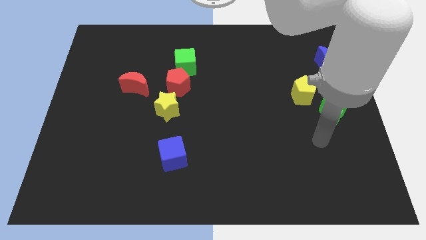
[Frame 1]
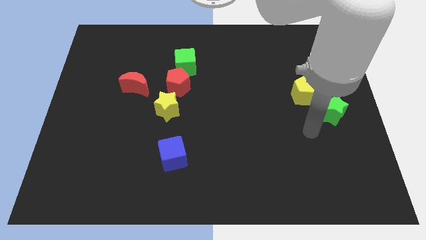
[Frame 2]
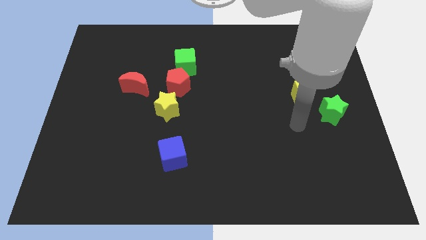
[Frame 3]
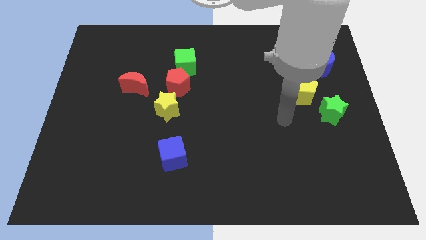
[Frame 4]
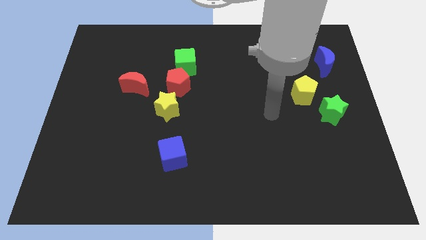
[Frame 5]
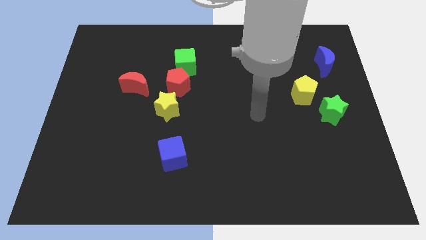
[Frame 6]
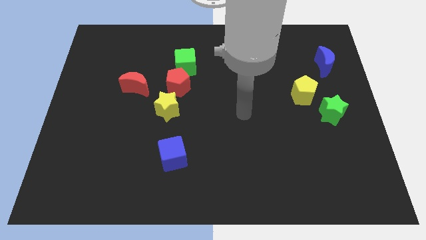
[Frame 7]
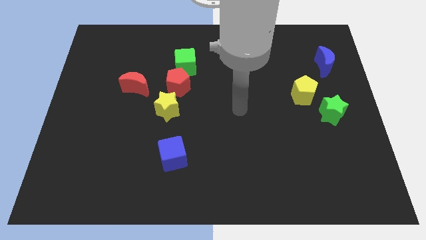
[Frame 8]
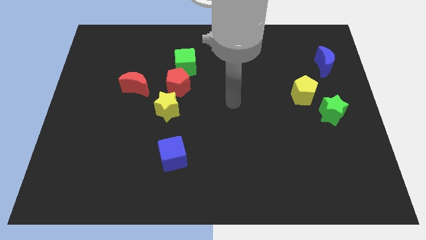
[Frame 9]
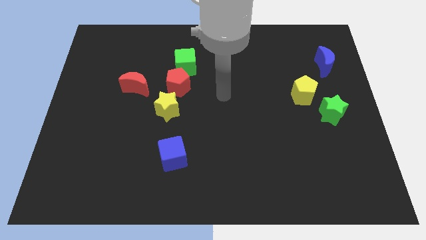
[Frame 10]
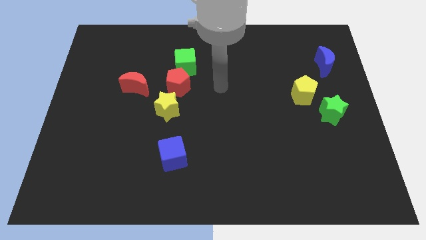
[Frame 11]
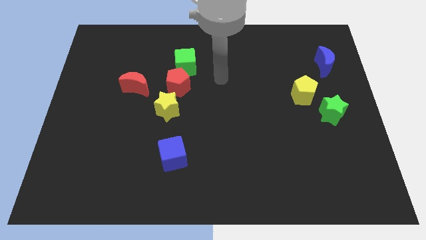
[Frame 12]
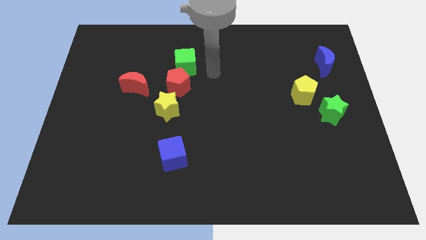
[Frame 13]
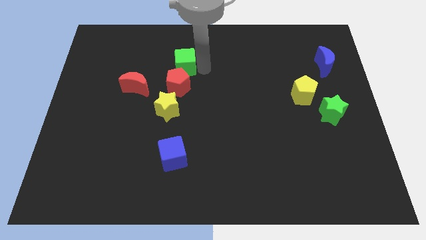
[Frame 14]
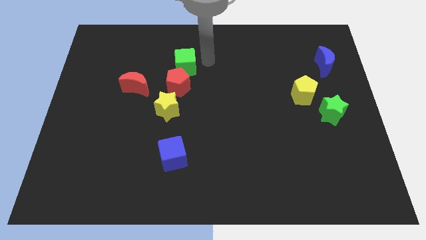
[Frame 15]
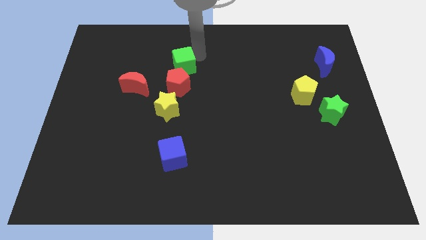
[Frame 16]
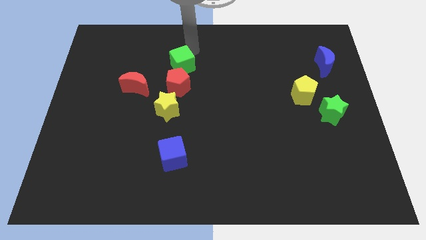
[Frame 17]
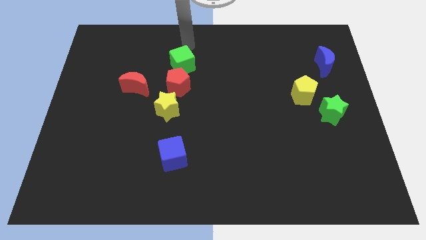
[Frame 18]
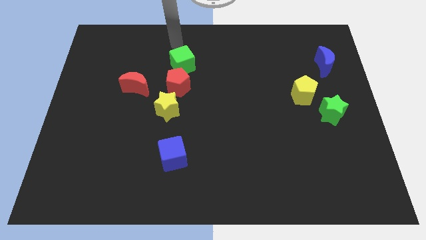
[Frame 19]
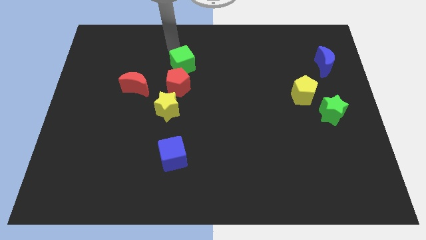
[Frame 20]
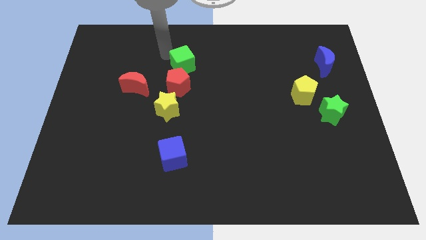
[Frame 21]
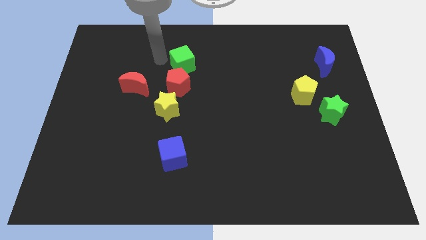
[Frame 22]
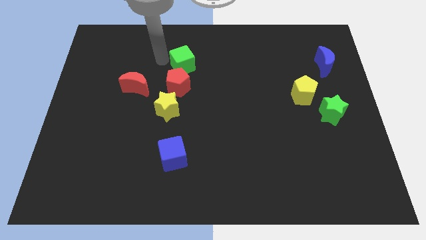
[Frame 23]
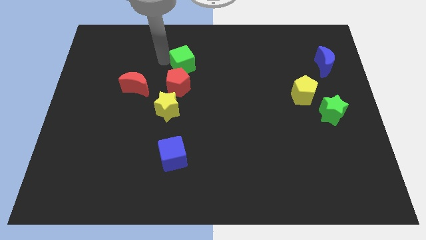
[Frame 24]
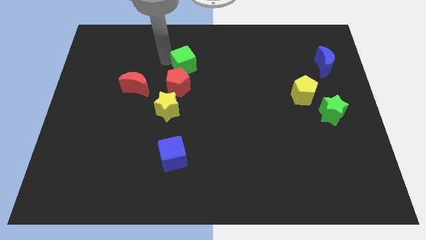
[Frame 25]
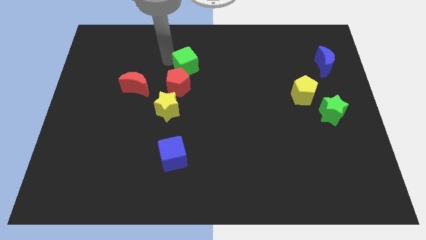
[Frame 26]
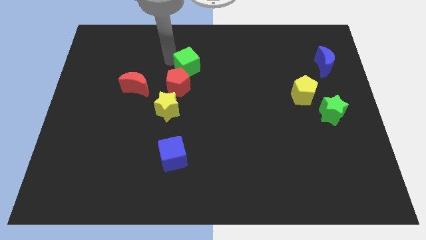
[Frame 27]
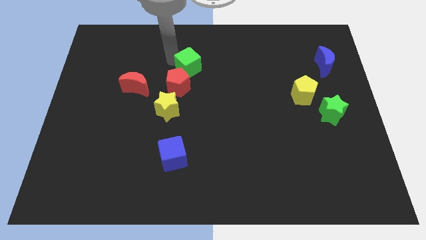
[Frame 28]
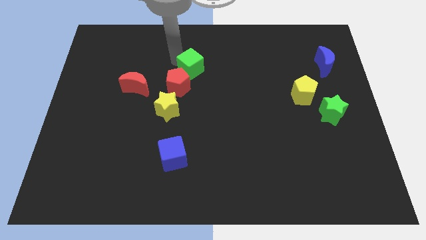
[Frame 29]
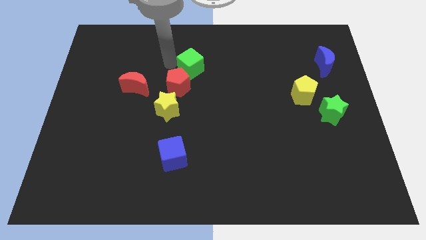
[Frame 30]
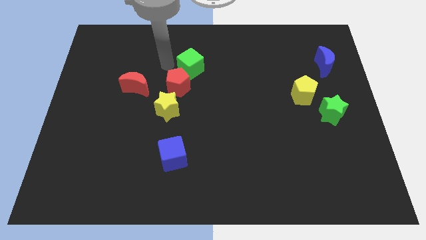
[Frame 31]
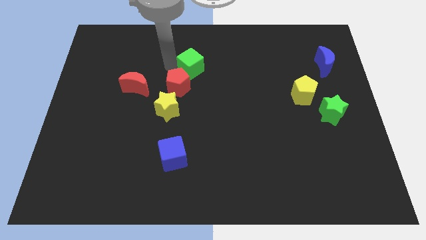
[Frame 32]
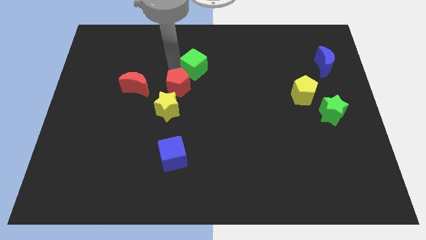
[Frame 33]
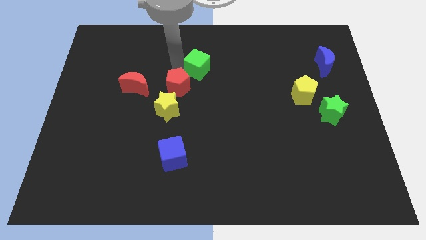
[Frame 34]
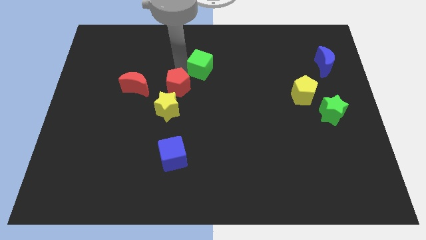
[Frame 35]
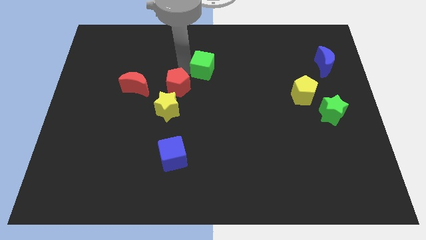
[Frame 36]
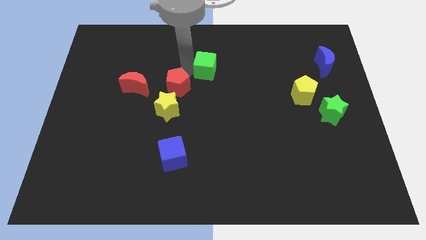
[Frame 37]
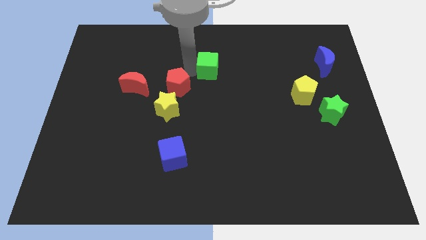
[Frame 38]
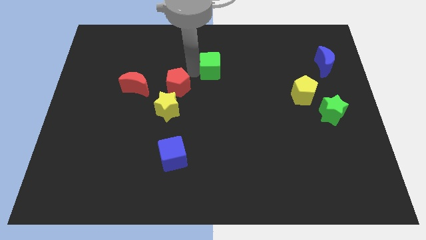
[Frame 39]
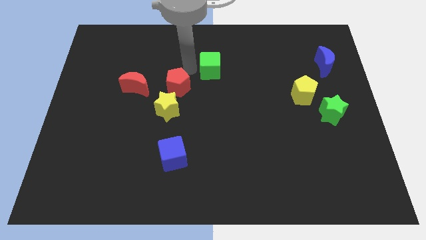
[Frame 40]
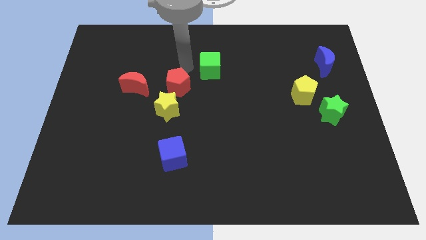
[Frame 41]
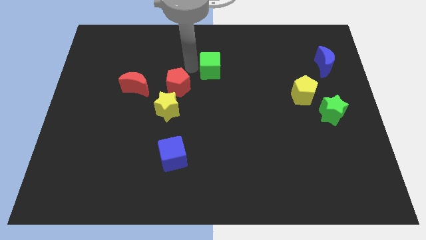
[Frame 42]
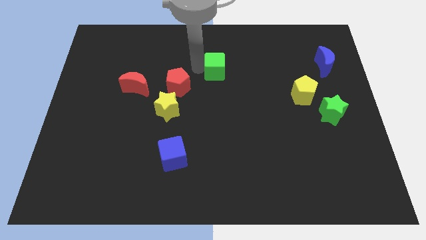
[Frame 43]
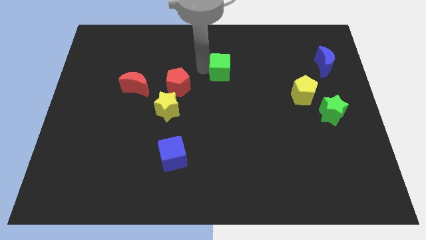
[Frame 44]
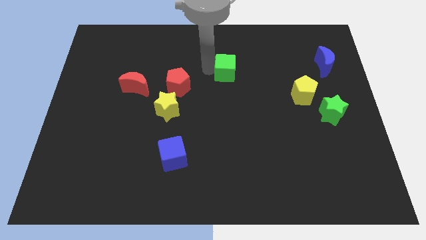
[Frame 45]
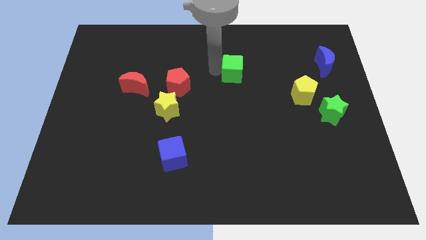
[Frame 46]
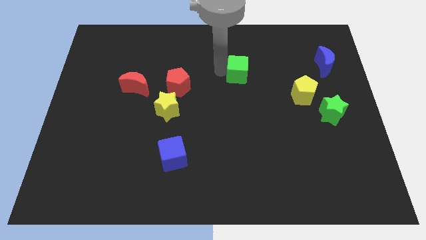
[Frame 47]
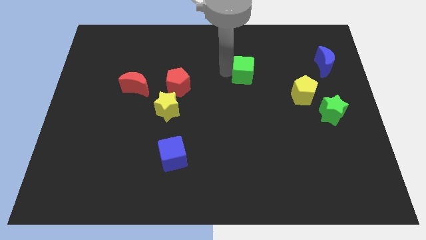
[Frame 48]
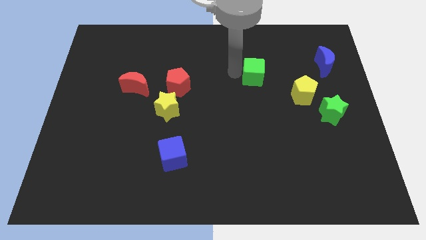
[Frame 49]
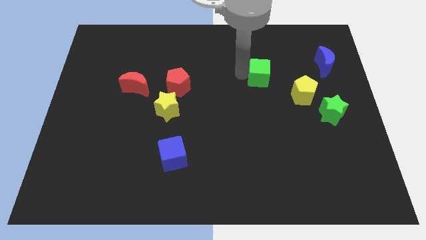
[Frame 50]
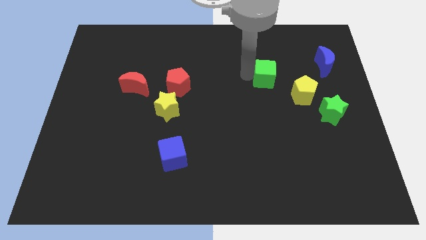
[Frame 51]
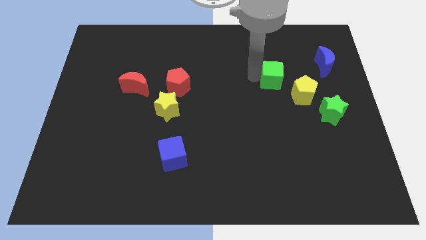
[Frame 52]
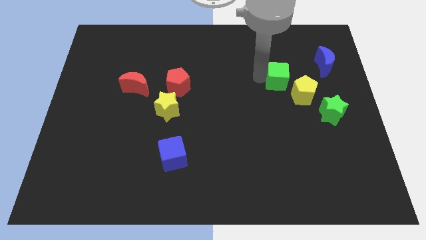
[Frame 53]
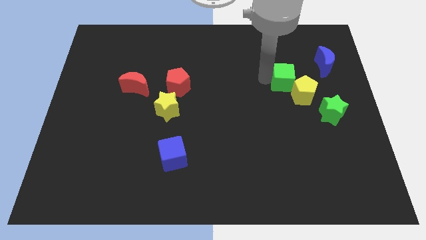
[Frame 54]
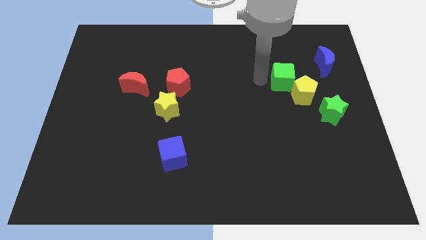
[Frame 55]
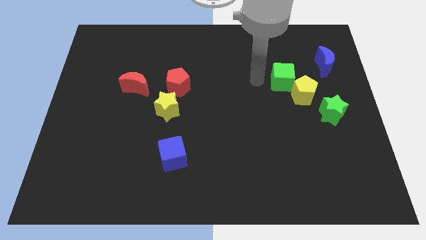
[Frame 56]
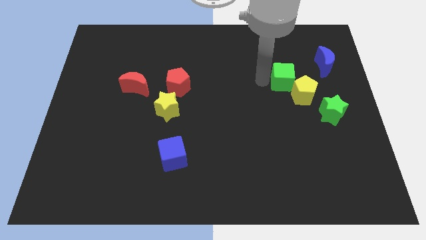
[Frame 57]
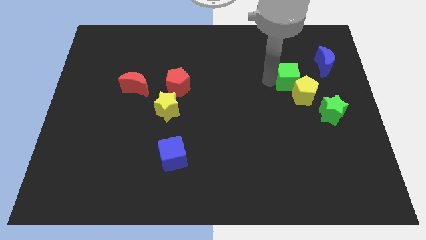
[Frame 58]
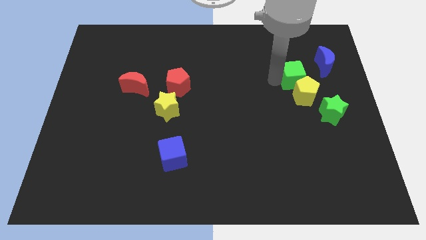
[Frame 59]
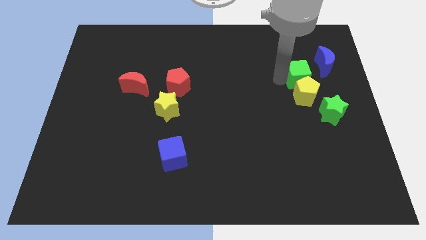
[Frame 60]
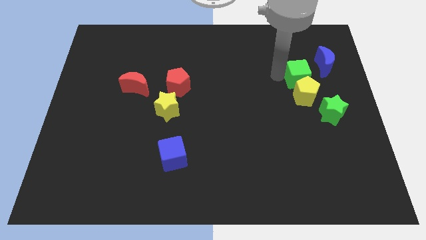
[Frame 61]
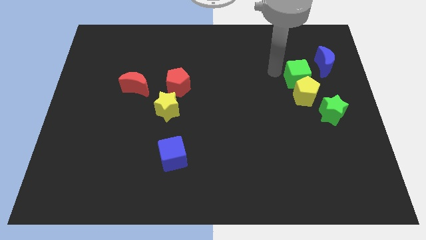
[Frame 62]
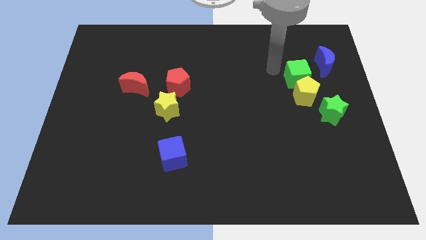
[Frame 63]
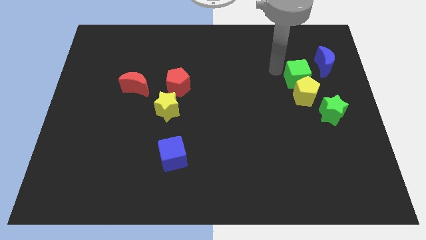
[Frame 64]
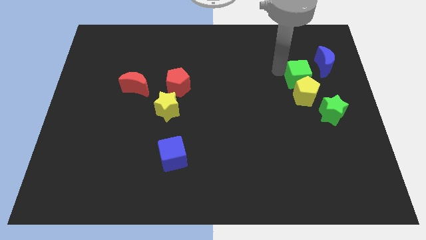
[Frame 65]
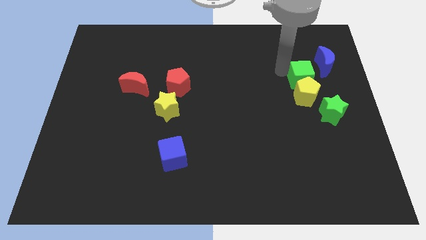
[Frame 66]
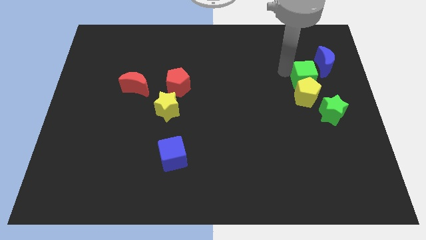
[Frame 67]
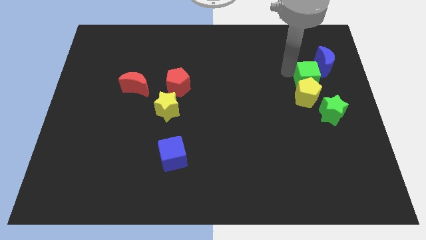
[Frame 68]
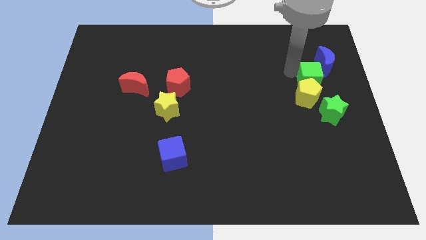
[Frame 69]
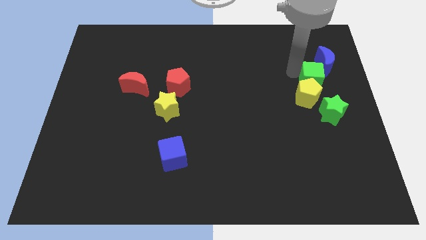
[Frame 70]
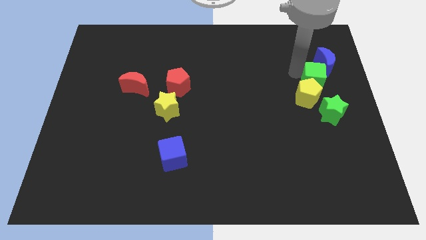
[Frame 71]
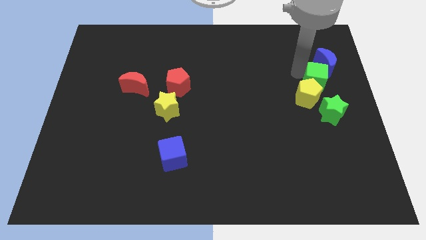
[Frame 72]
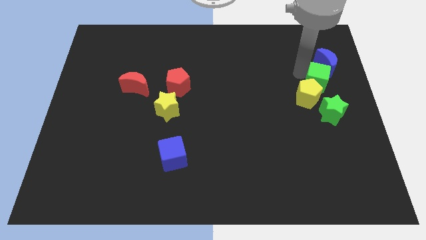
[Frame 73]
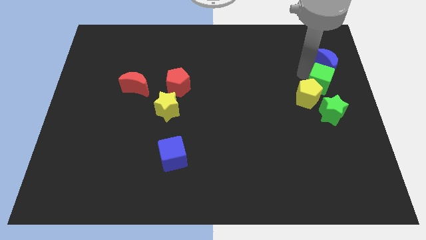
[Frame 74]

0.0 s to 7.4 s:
move the green cube to the right side of the board
